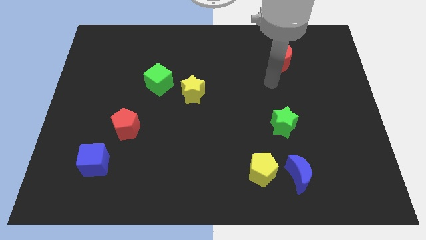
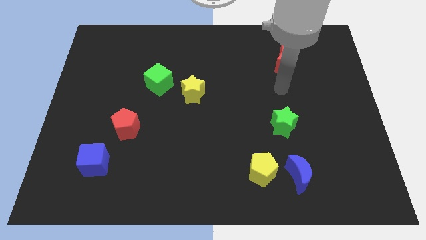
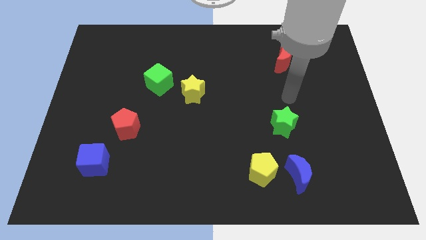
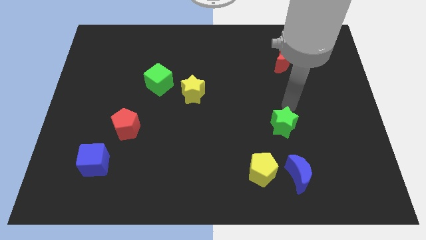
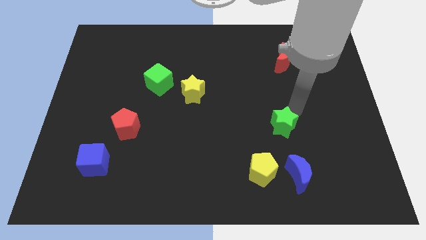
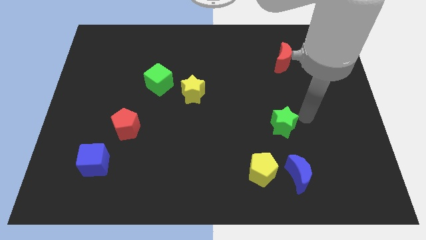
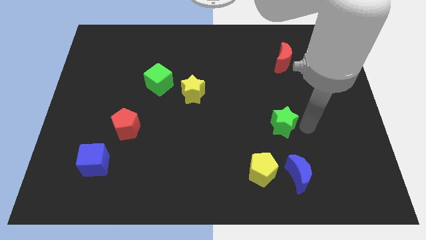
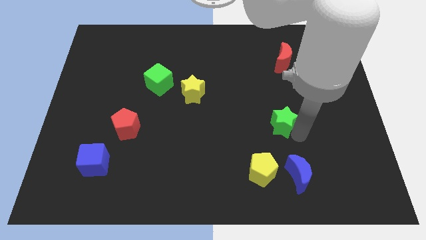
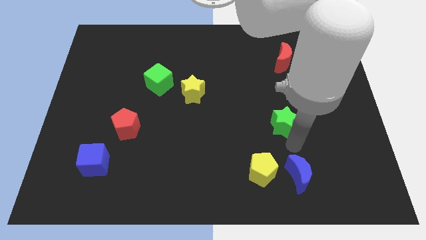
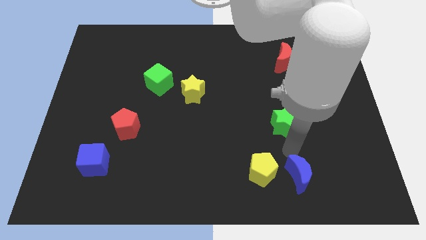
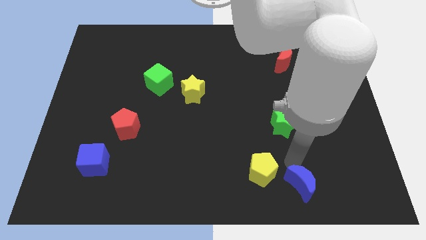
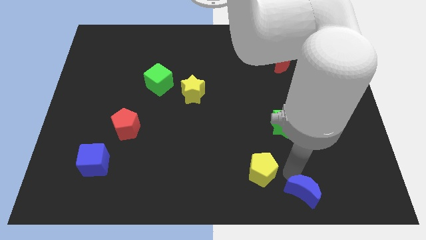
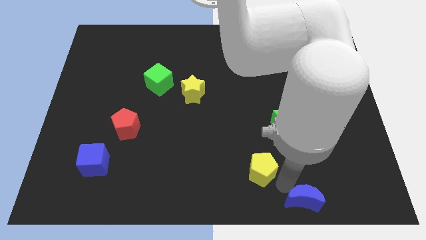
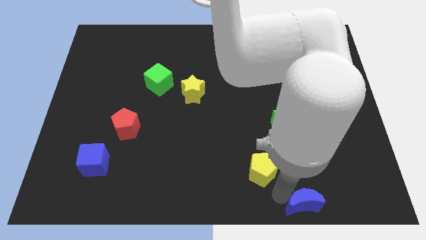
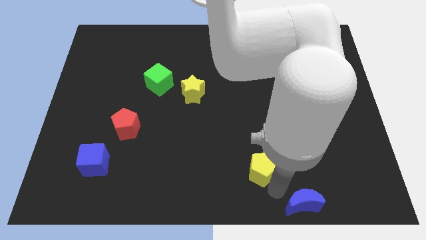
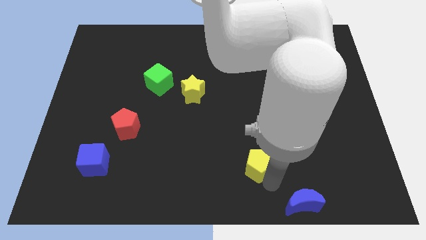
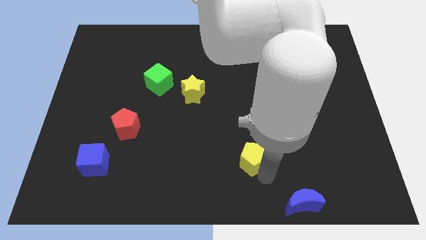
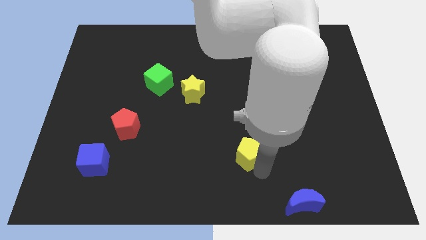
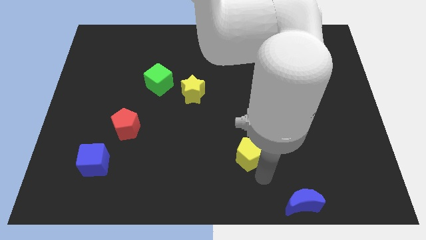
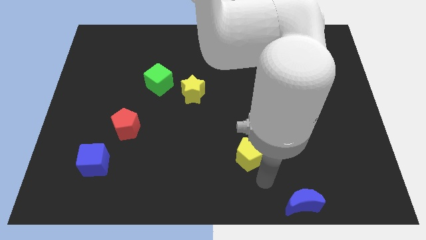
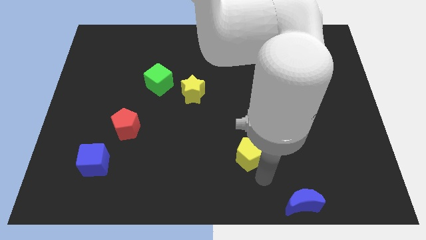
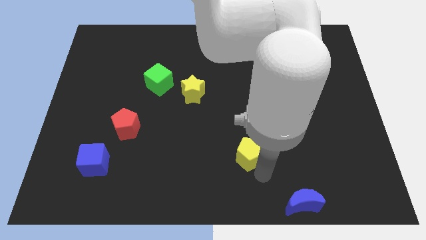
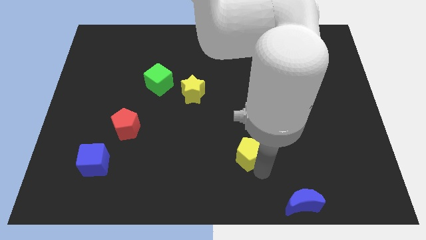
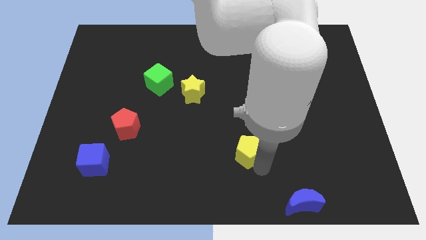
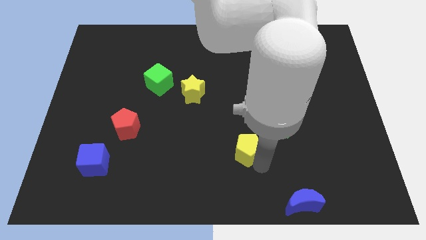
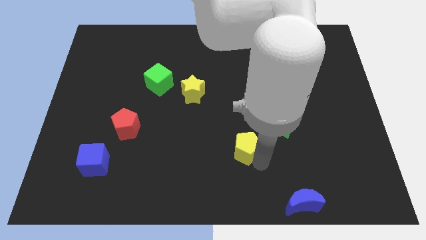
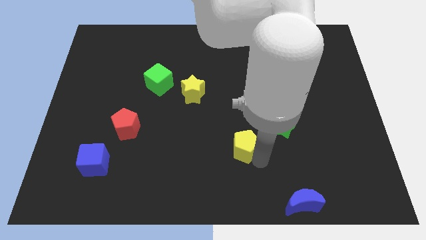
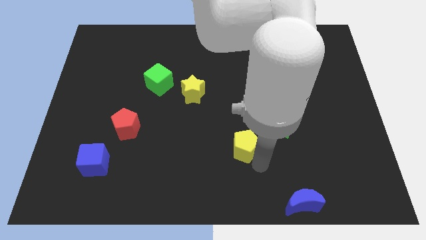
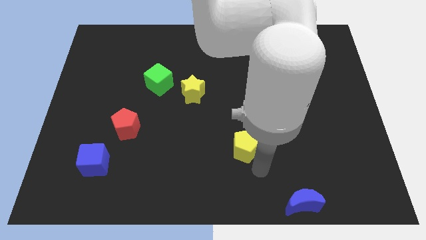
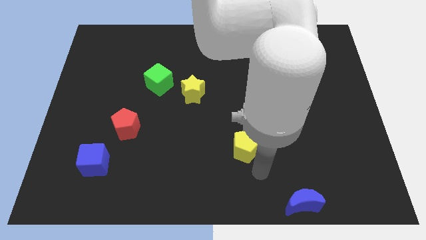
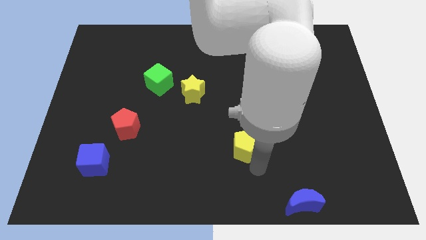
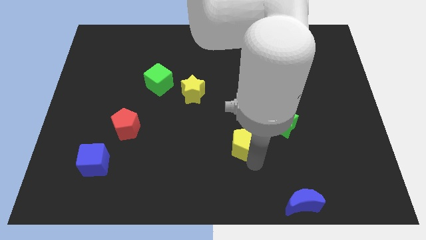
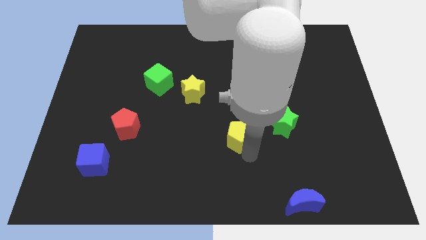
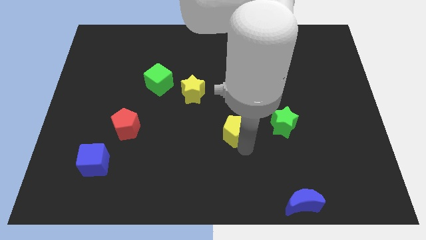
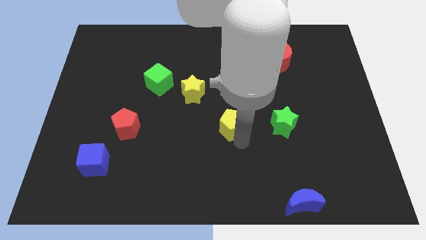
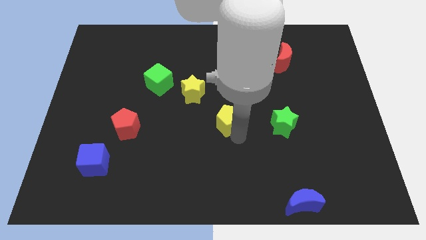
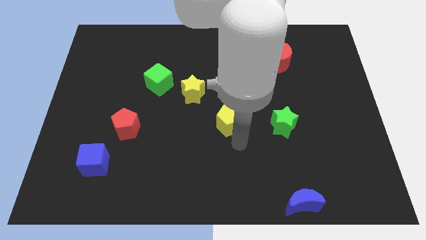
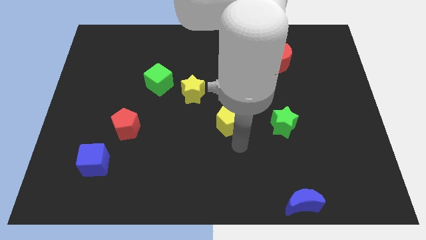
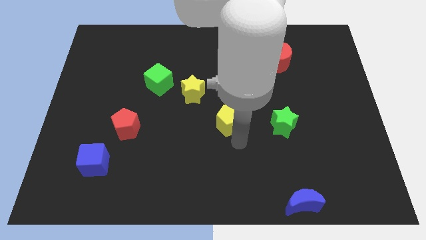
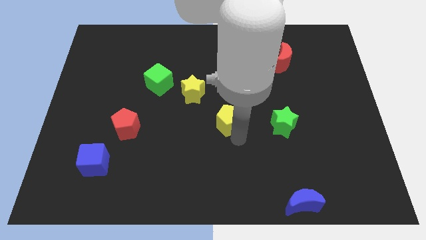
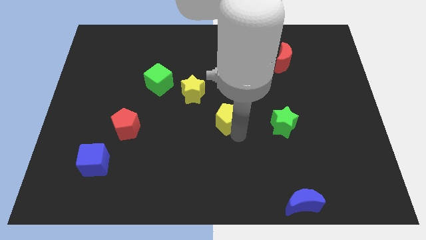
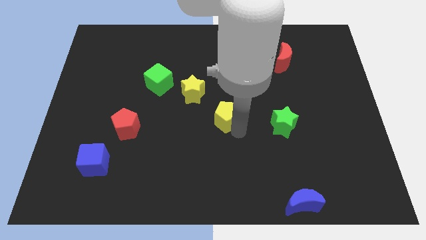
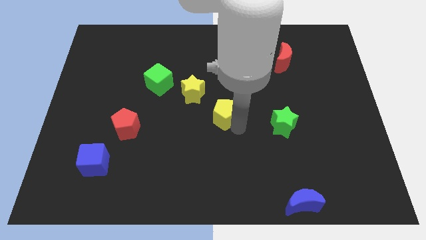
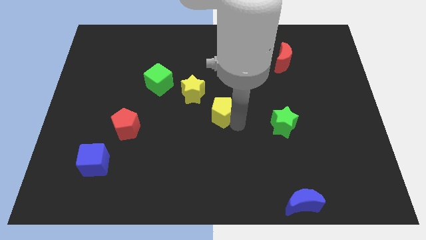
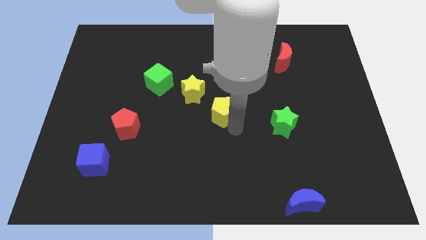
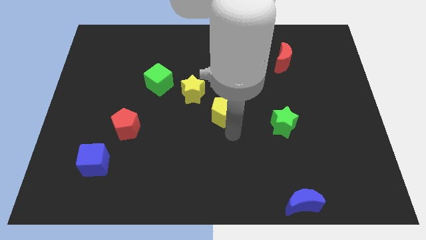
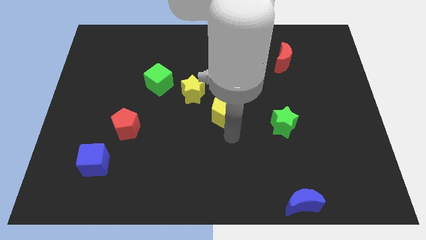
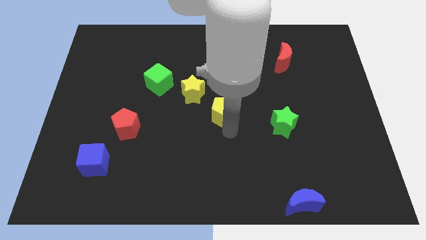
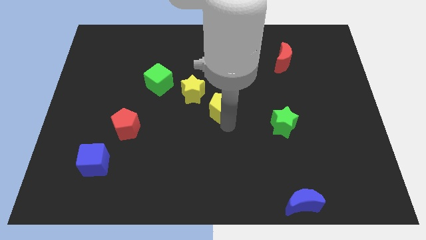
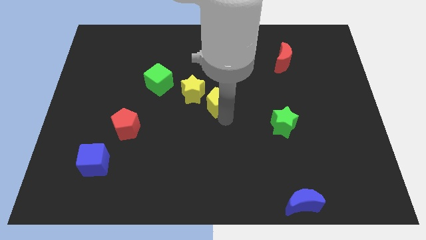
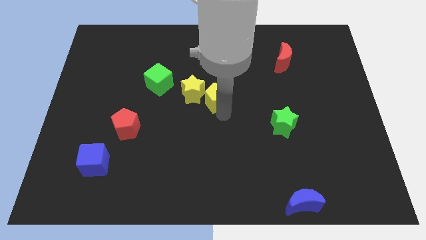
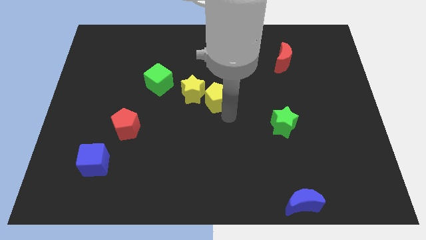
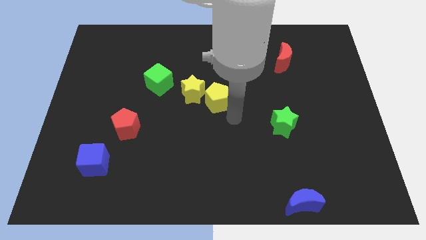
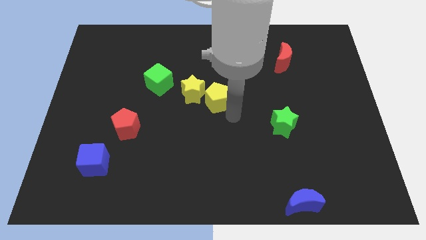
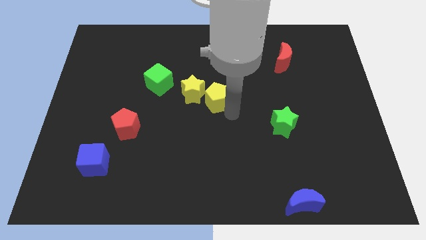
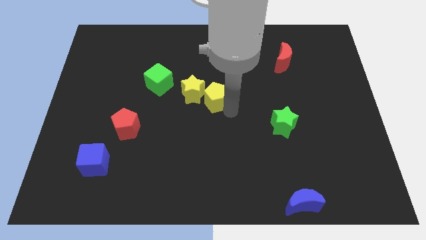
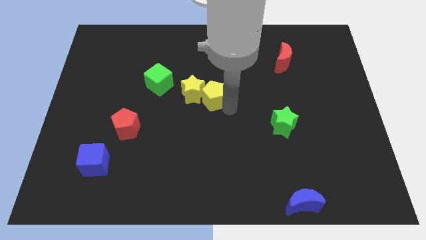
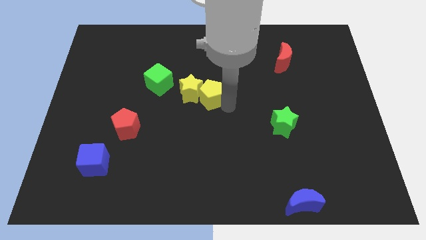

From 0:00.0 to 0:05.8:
push the yellow pentagon to the right of the green cube

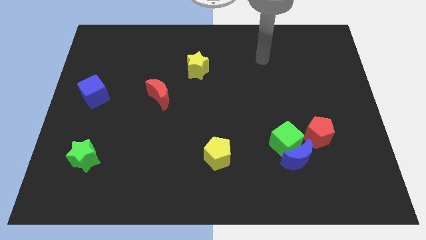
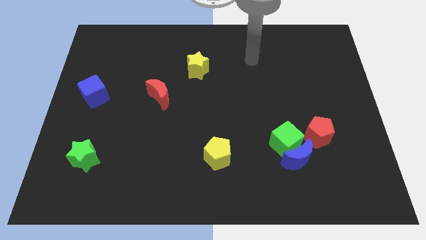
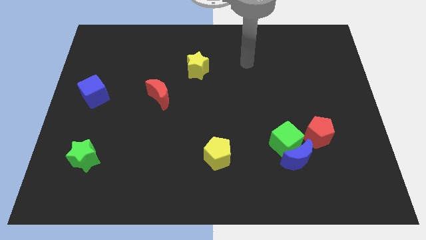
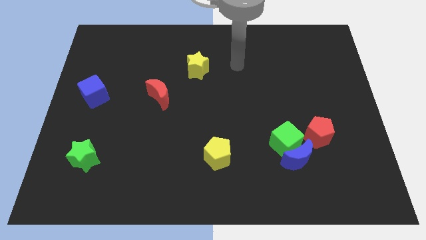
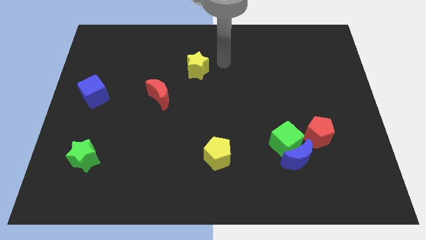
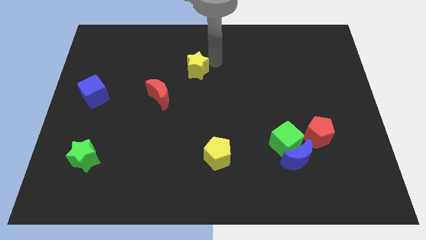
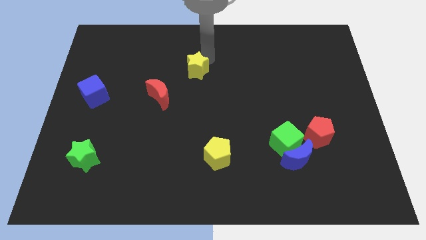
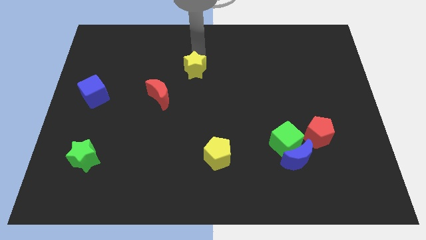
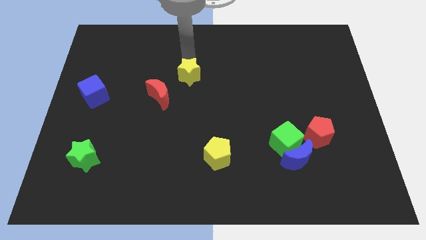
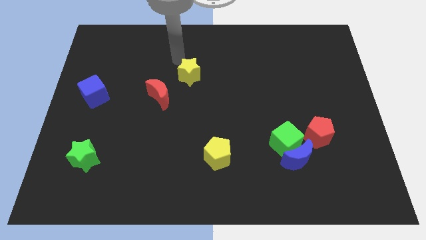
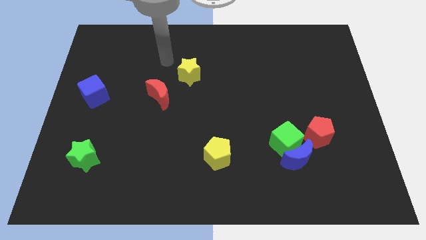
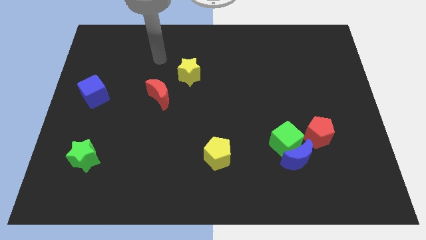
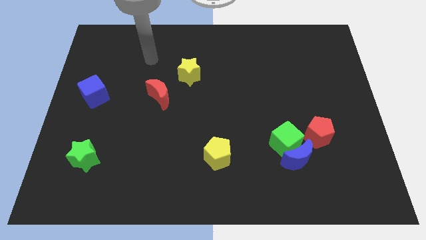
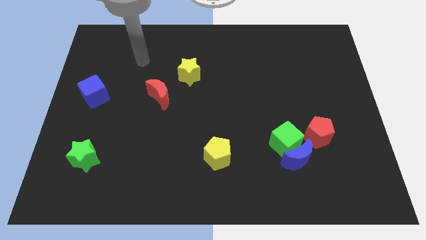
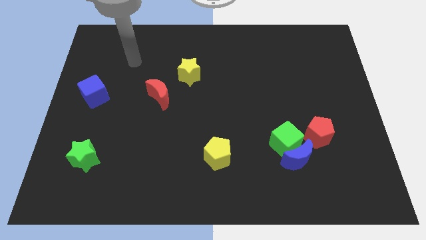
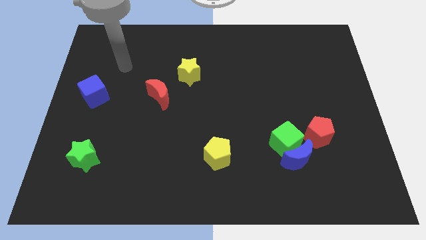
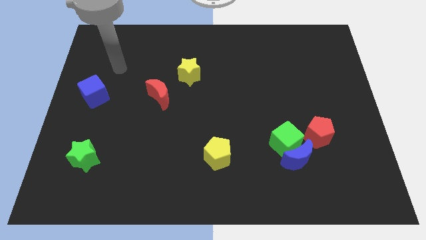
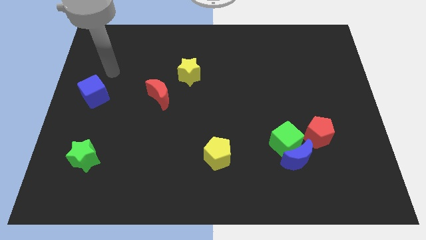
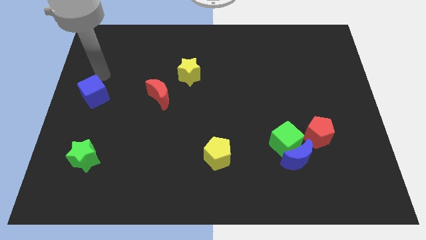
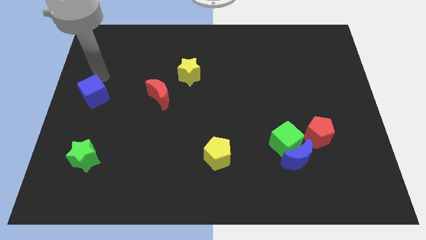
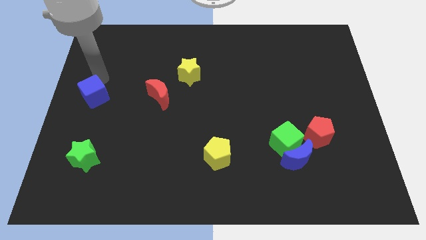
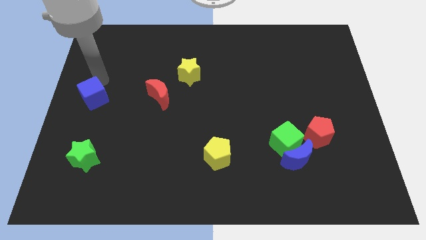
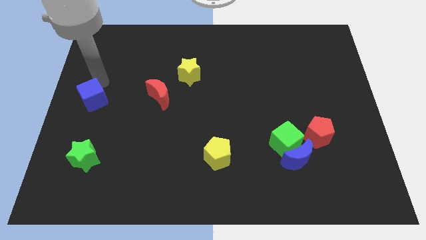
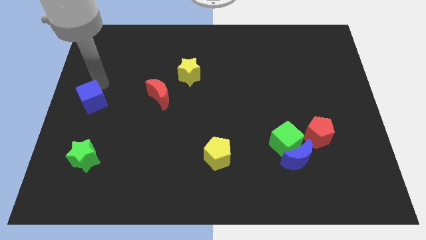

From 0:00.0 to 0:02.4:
slide the blue cube to the top side of the green star

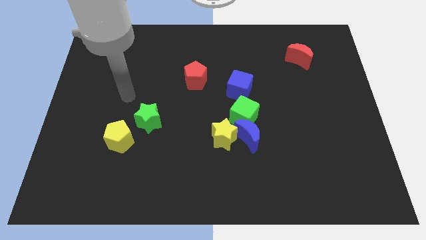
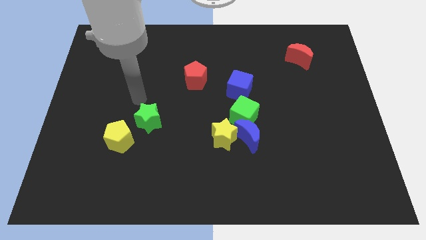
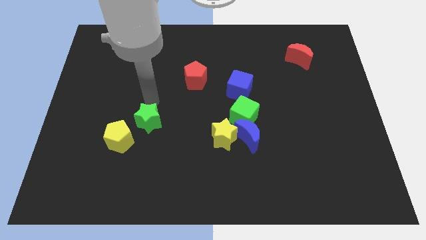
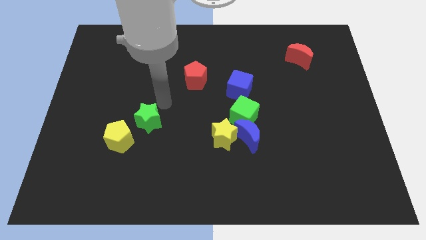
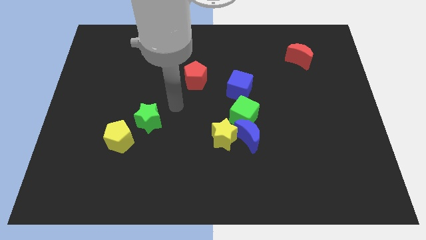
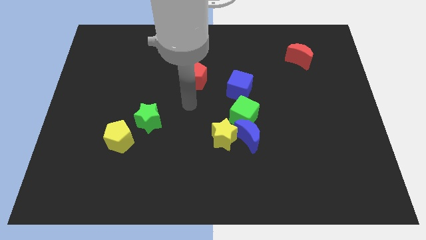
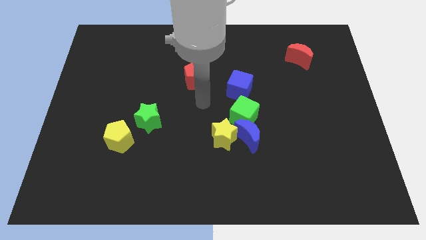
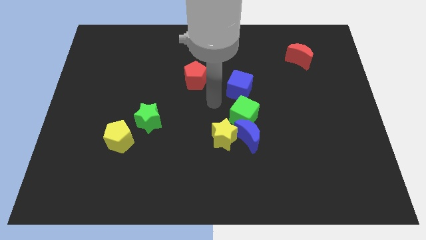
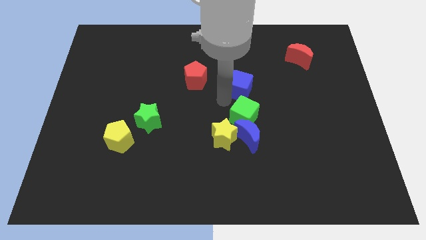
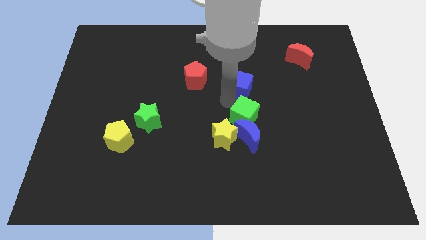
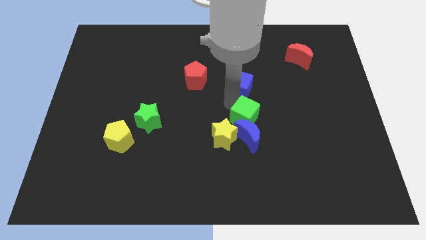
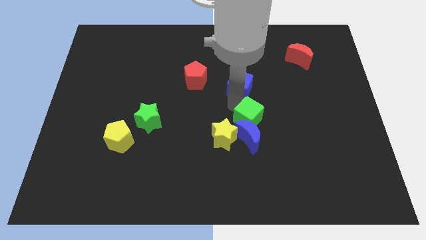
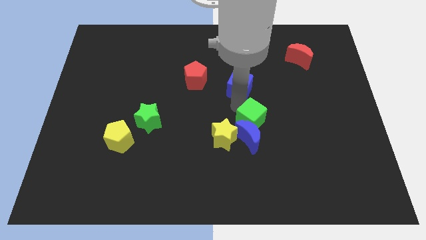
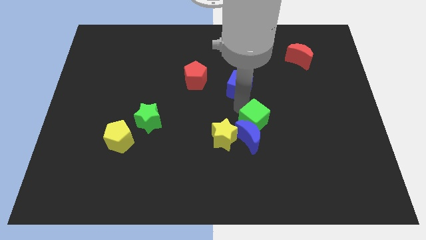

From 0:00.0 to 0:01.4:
move the green cube to the right of the yellow star
